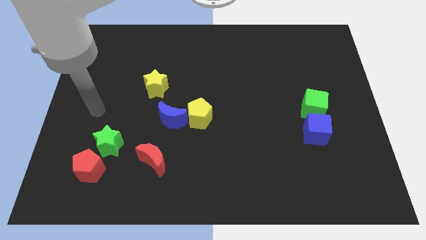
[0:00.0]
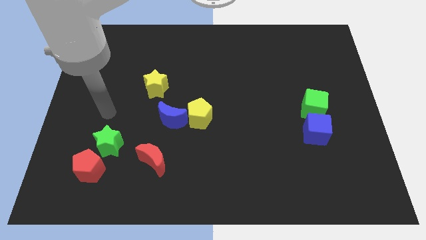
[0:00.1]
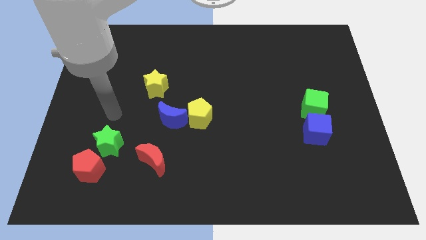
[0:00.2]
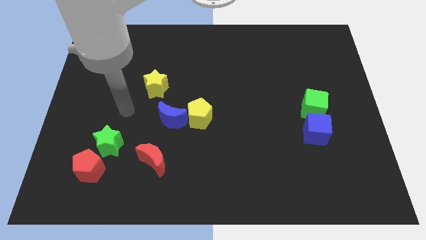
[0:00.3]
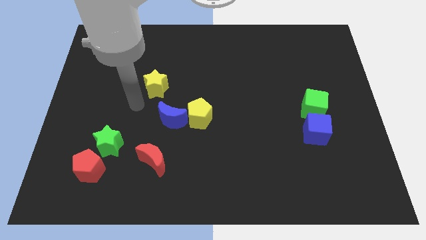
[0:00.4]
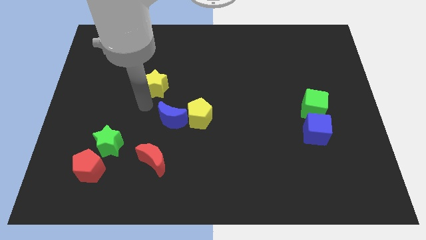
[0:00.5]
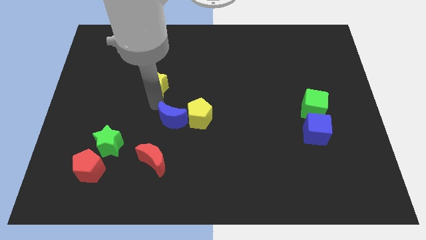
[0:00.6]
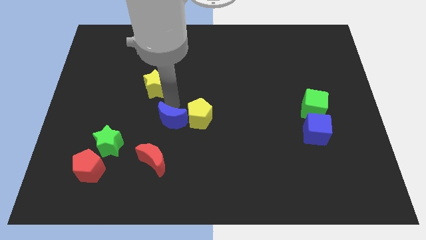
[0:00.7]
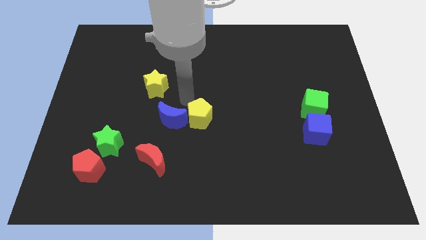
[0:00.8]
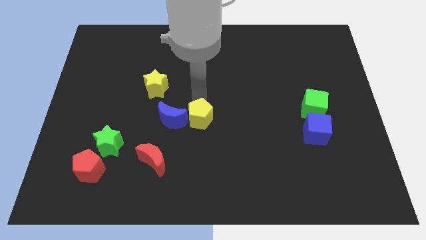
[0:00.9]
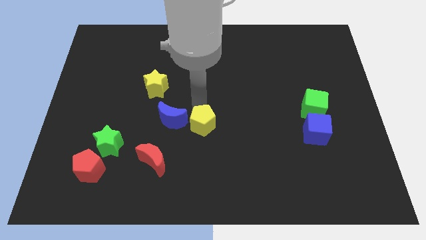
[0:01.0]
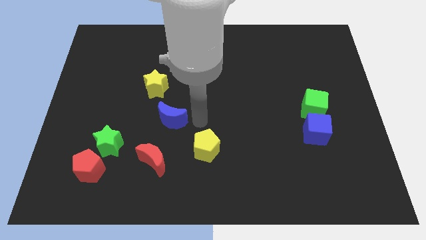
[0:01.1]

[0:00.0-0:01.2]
separate the blue moon from the yellow pentagon

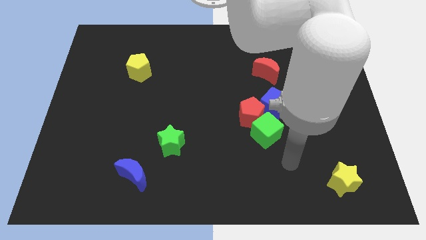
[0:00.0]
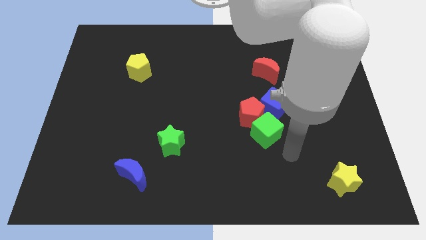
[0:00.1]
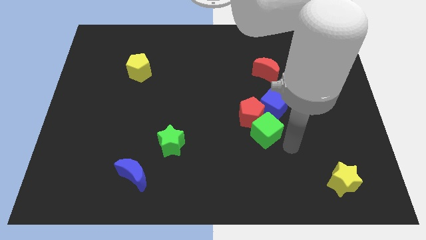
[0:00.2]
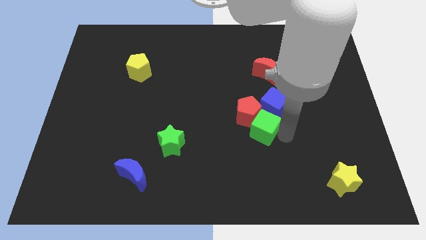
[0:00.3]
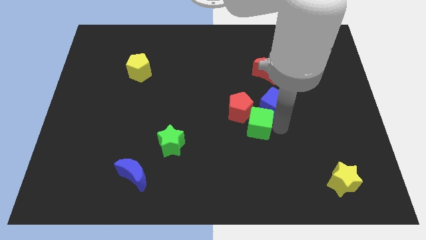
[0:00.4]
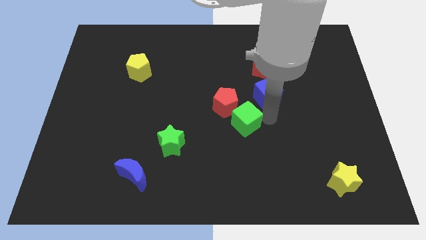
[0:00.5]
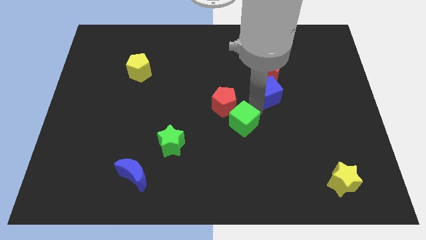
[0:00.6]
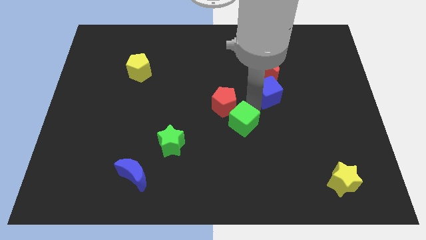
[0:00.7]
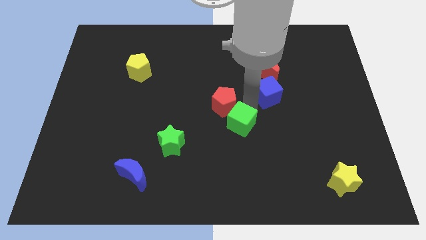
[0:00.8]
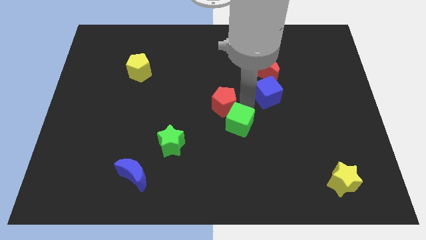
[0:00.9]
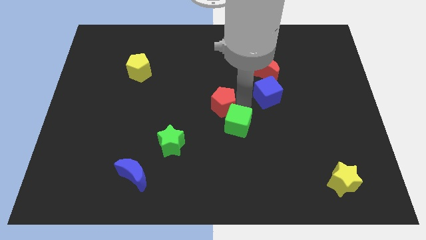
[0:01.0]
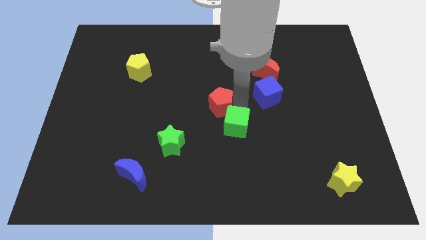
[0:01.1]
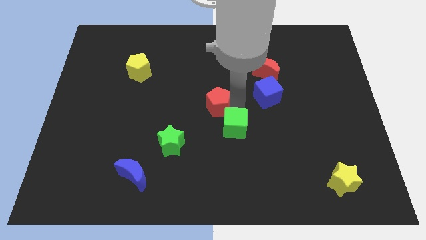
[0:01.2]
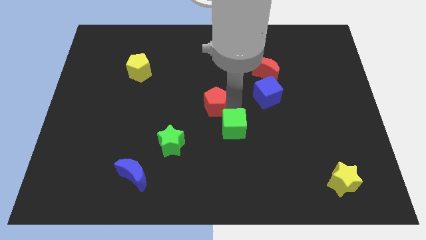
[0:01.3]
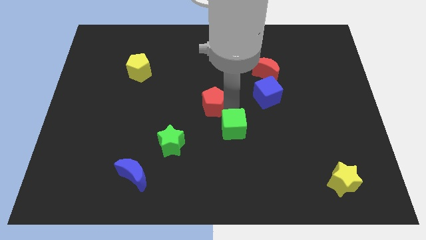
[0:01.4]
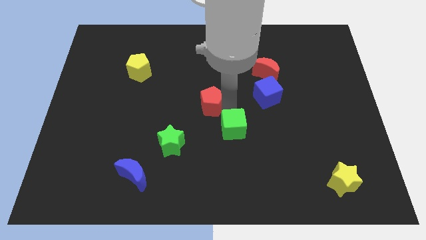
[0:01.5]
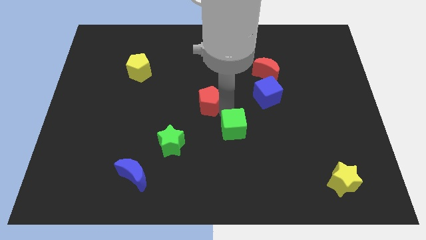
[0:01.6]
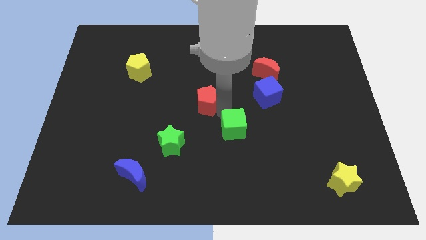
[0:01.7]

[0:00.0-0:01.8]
move the red pentagon away from the green cube and blue cube

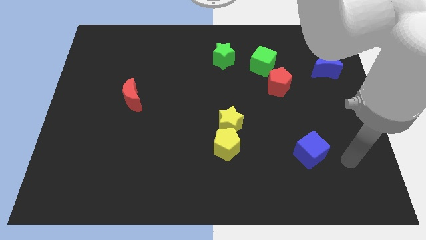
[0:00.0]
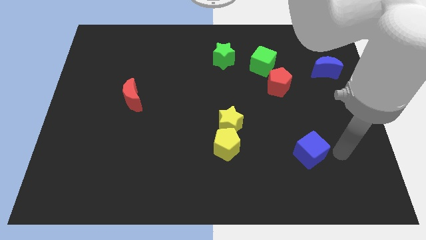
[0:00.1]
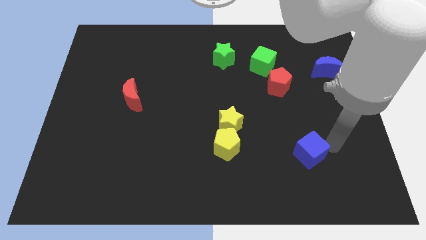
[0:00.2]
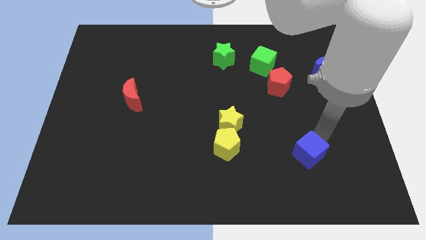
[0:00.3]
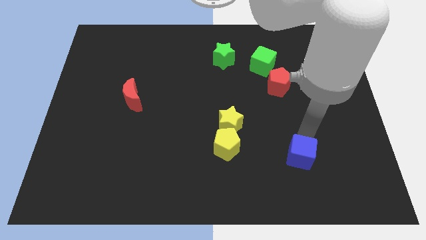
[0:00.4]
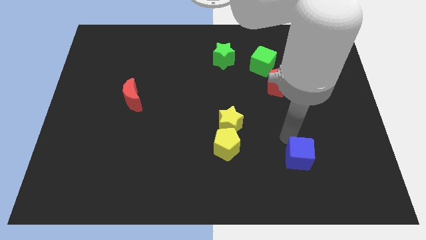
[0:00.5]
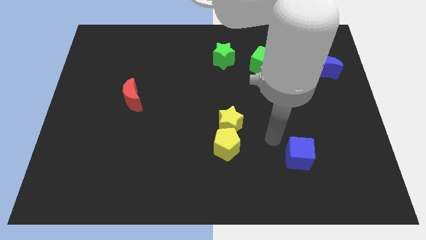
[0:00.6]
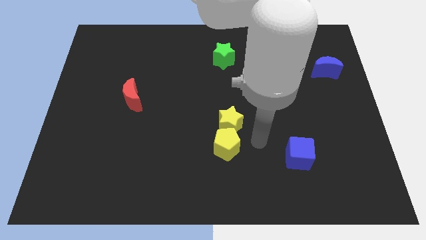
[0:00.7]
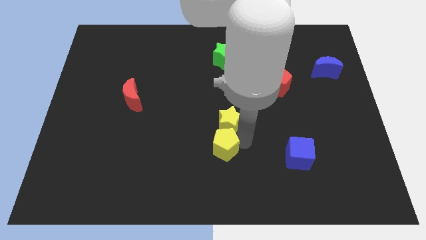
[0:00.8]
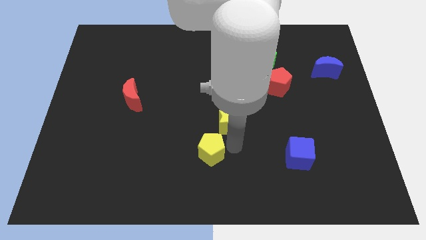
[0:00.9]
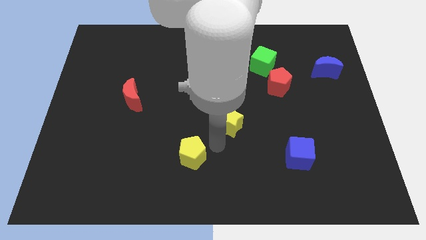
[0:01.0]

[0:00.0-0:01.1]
separate the yellow star from the yellow pentagon

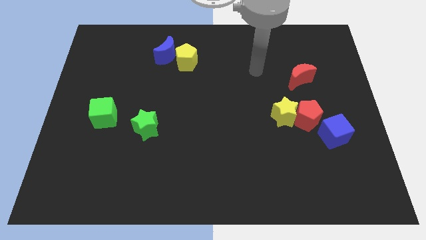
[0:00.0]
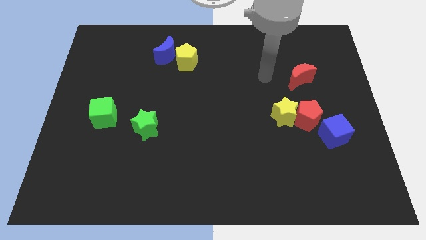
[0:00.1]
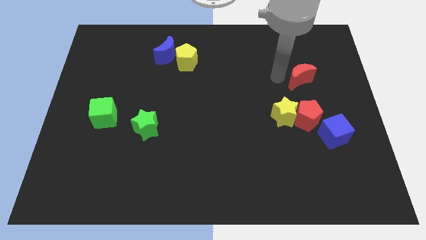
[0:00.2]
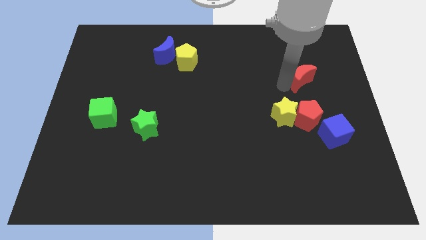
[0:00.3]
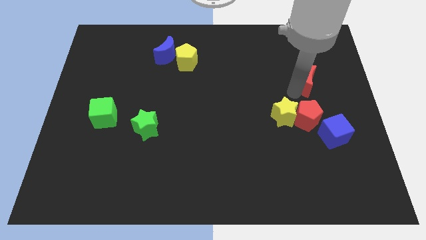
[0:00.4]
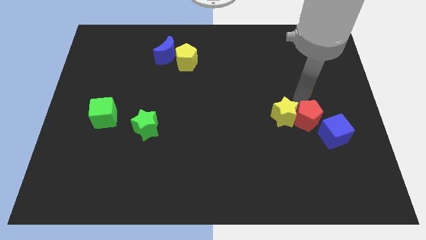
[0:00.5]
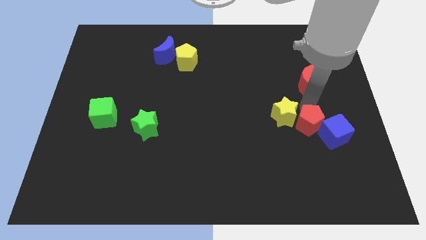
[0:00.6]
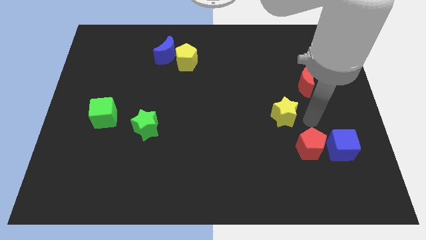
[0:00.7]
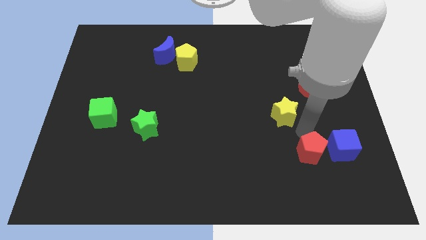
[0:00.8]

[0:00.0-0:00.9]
pull the yellow star apart from the red pentagon

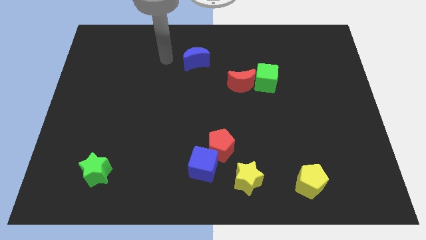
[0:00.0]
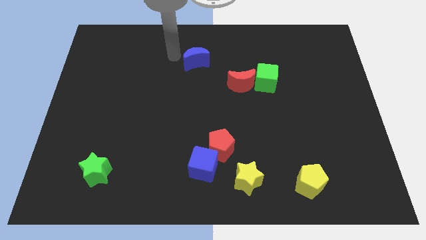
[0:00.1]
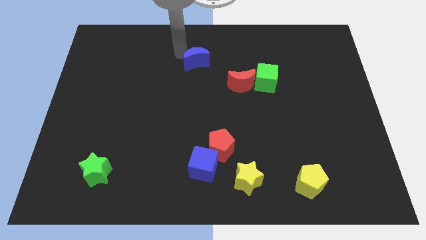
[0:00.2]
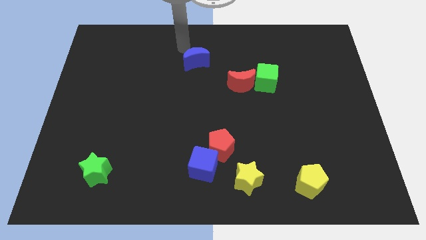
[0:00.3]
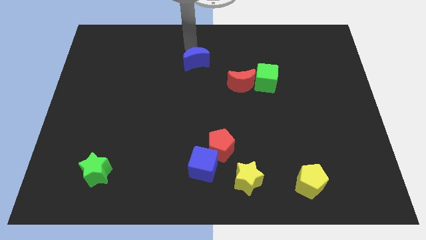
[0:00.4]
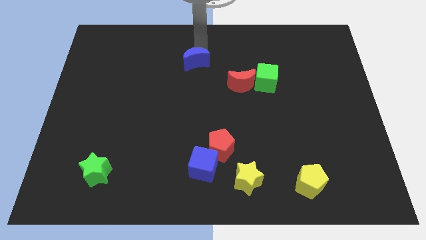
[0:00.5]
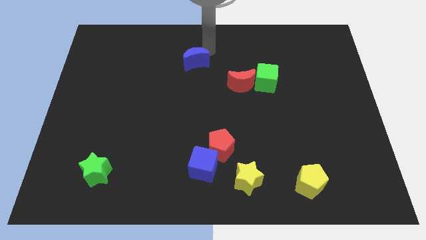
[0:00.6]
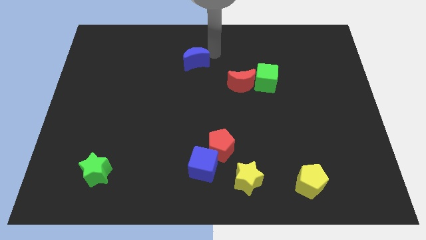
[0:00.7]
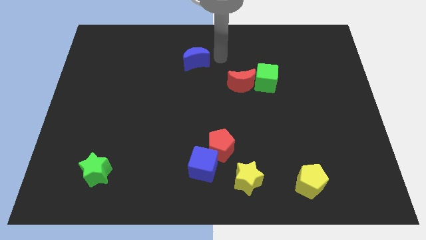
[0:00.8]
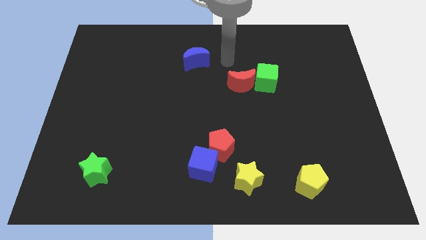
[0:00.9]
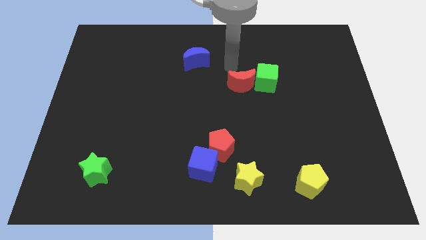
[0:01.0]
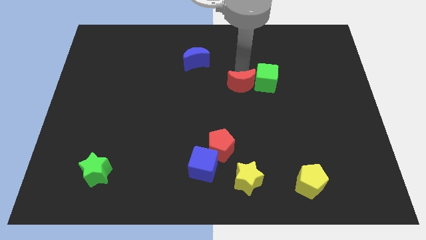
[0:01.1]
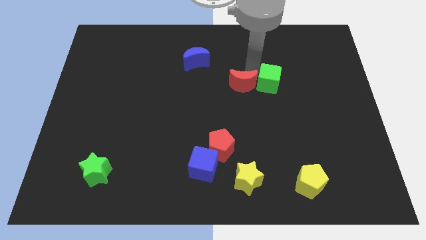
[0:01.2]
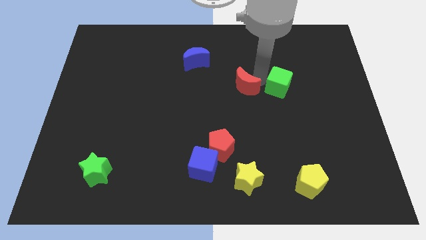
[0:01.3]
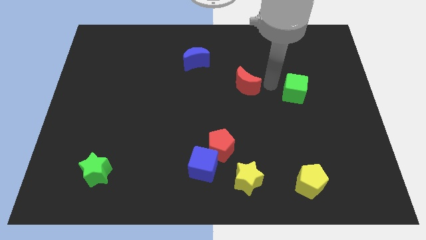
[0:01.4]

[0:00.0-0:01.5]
separate the red moon from the green cube

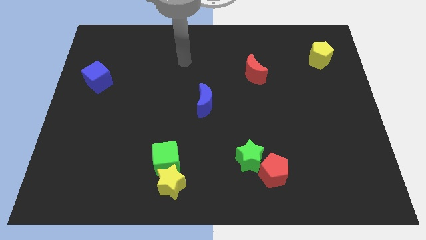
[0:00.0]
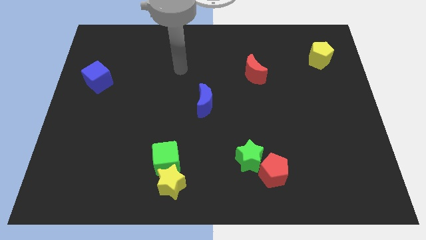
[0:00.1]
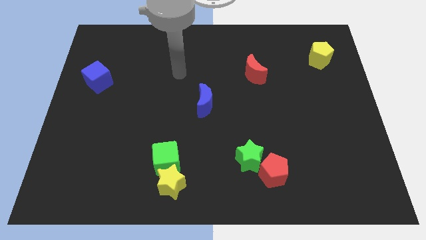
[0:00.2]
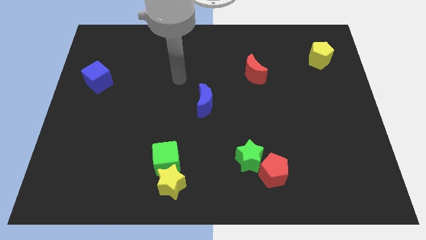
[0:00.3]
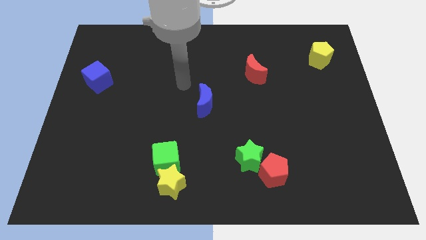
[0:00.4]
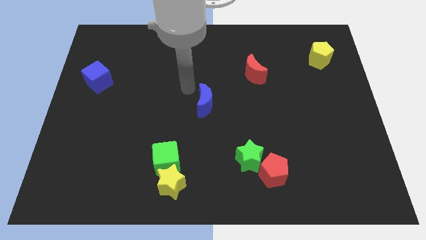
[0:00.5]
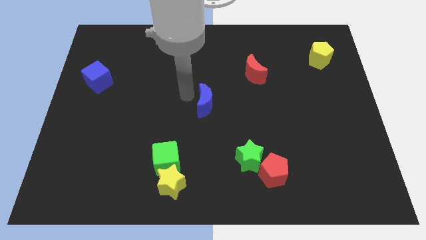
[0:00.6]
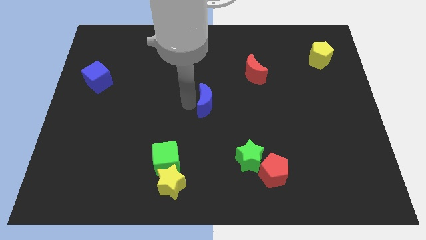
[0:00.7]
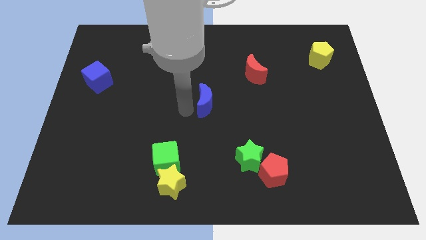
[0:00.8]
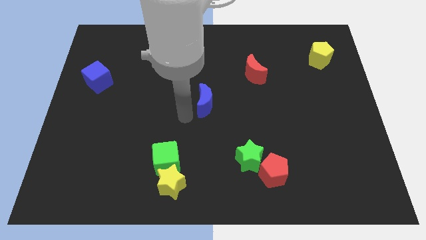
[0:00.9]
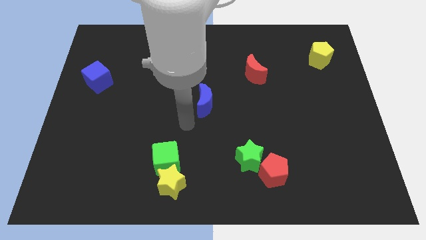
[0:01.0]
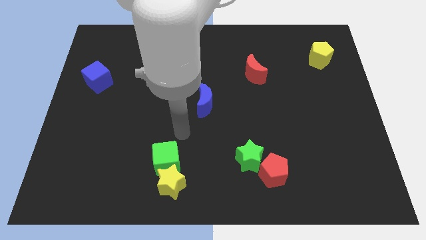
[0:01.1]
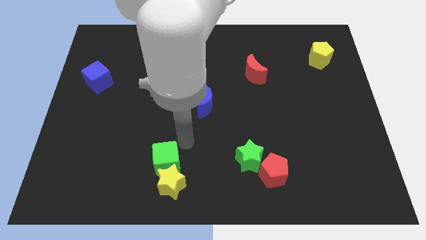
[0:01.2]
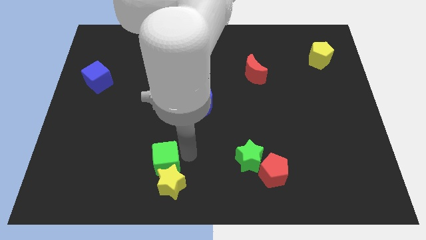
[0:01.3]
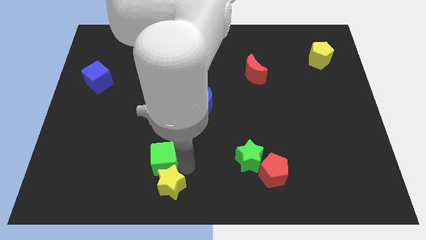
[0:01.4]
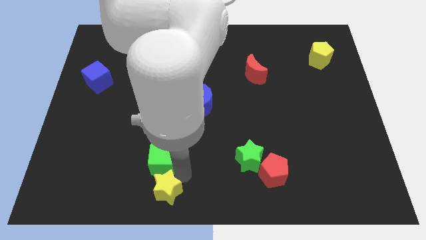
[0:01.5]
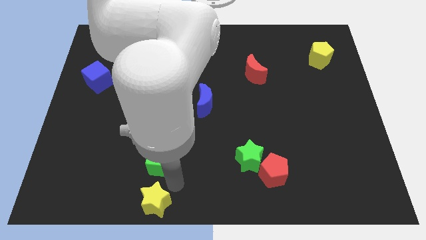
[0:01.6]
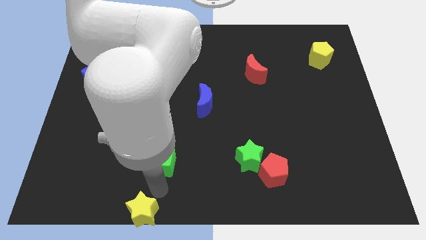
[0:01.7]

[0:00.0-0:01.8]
move the green cube away from the yellow star

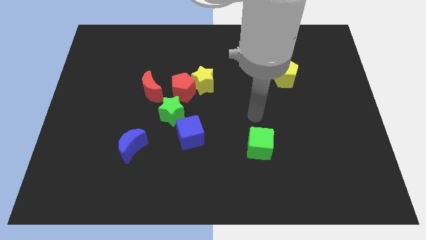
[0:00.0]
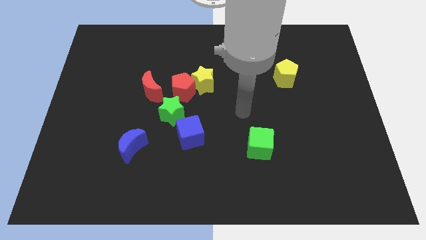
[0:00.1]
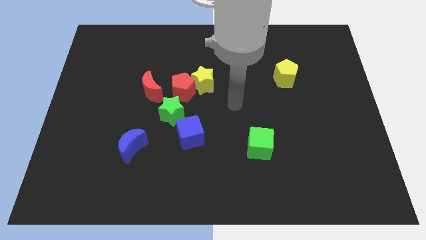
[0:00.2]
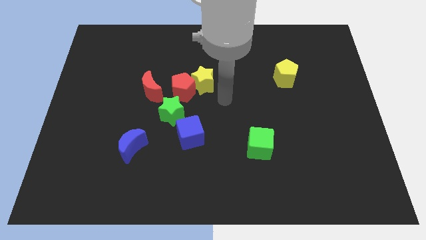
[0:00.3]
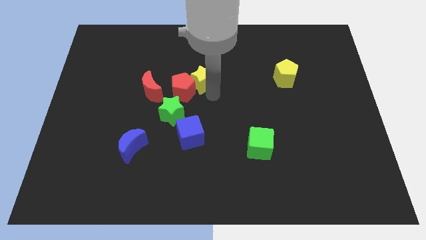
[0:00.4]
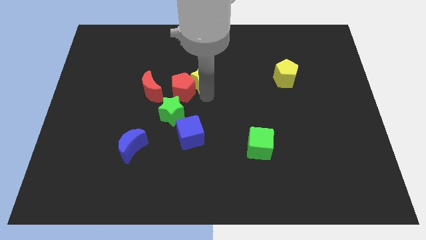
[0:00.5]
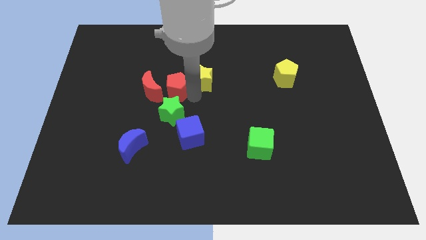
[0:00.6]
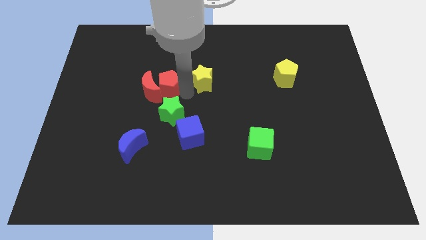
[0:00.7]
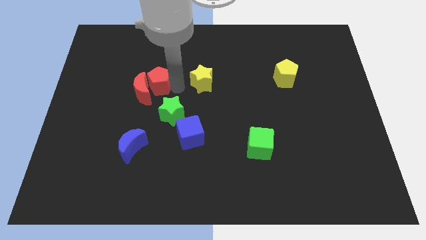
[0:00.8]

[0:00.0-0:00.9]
move the yellow star away from the red pentagon

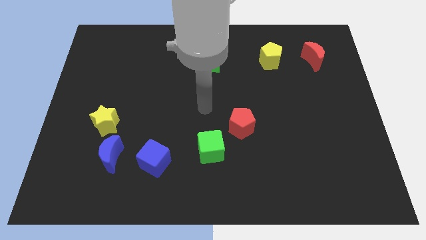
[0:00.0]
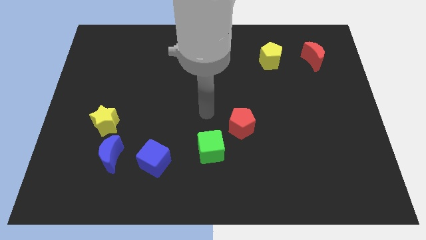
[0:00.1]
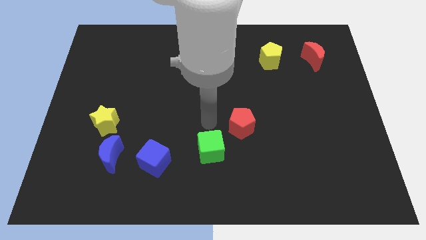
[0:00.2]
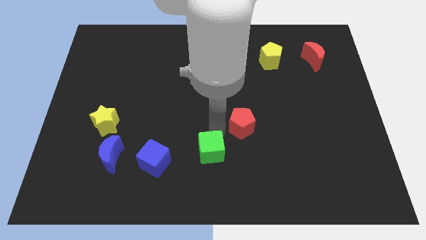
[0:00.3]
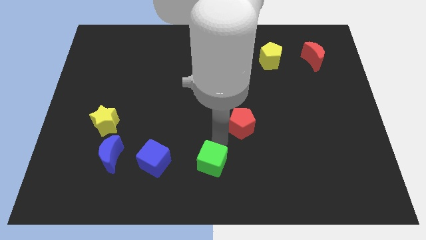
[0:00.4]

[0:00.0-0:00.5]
pull the red pentagon apart from the green cube
